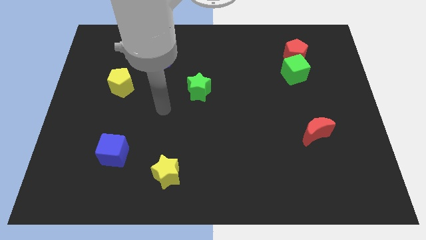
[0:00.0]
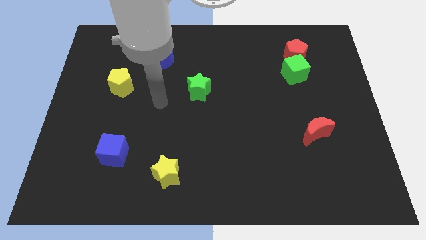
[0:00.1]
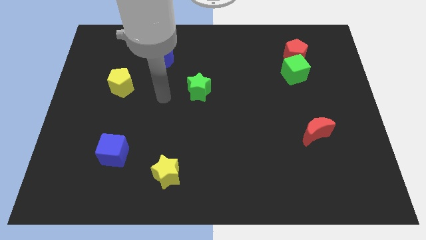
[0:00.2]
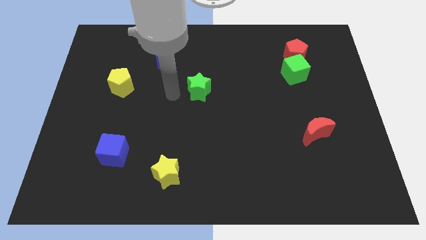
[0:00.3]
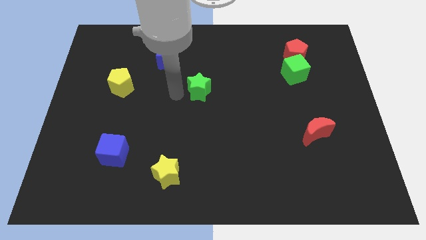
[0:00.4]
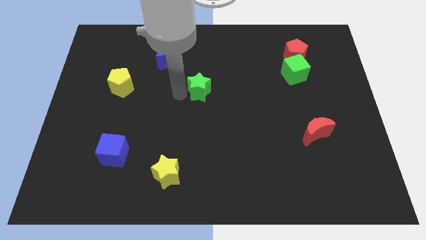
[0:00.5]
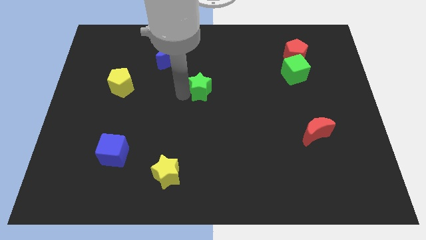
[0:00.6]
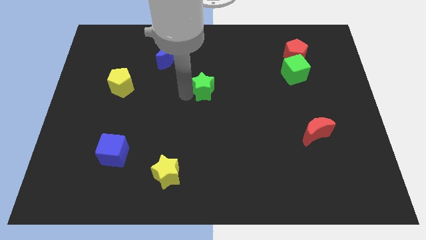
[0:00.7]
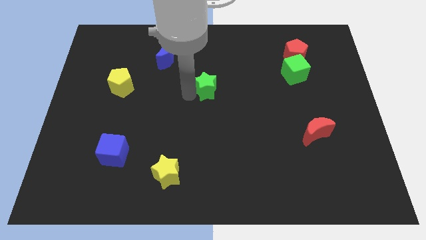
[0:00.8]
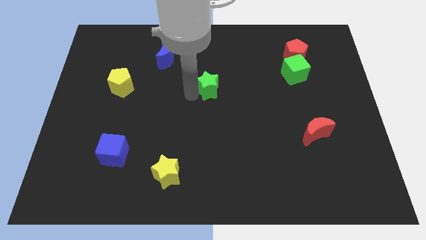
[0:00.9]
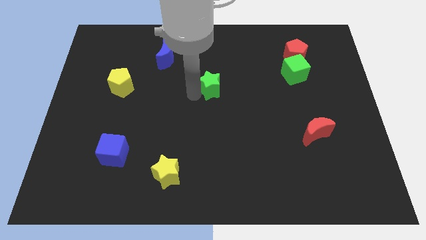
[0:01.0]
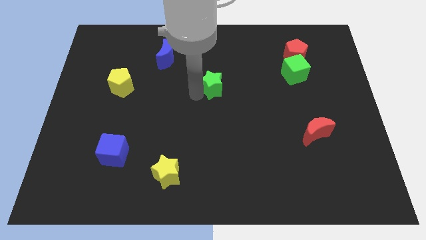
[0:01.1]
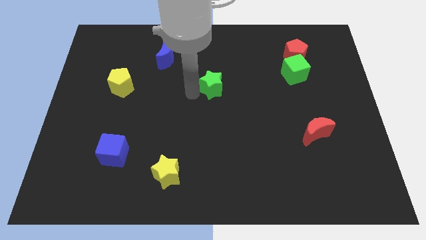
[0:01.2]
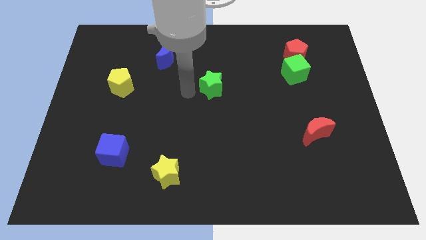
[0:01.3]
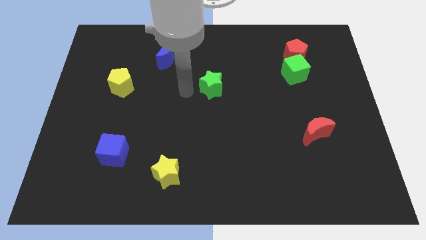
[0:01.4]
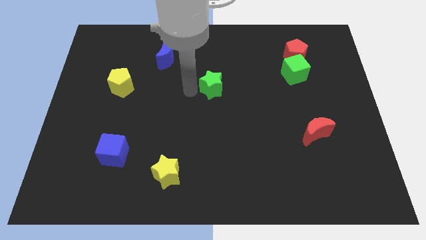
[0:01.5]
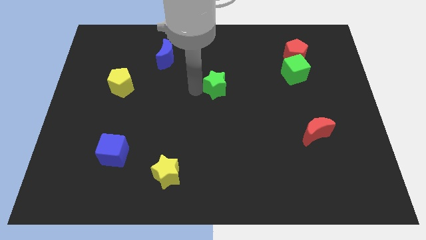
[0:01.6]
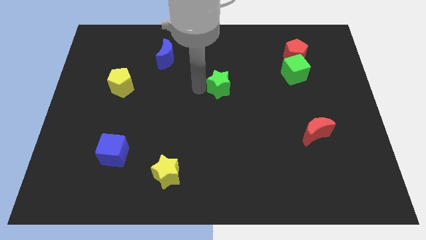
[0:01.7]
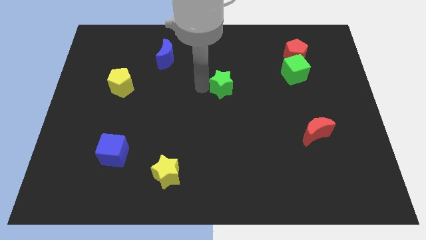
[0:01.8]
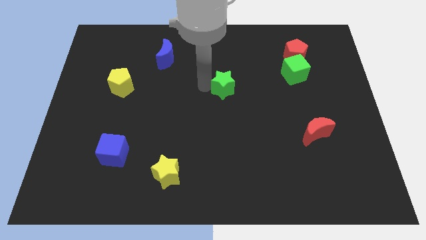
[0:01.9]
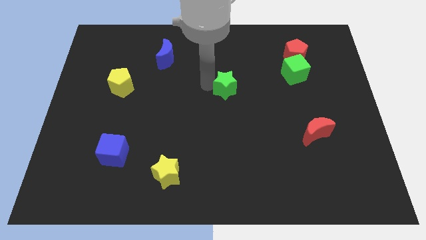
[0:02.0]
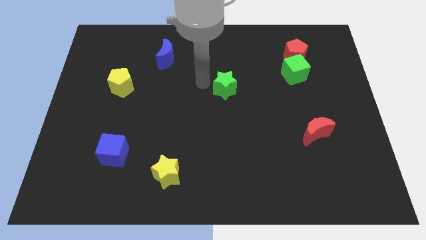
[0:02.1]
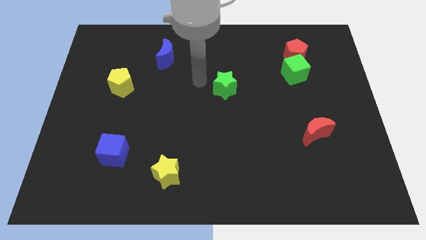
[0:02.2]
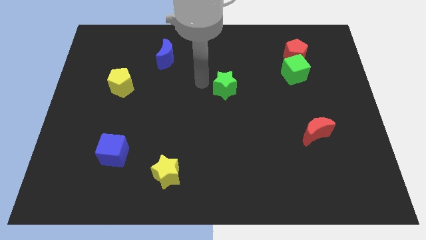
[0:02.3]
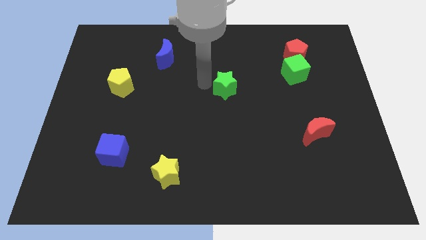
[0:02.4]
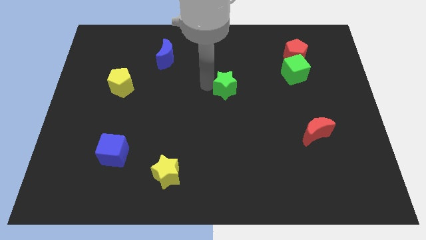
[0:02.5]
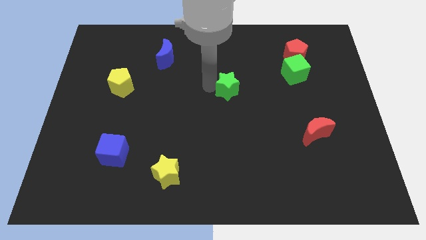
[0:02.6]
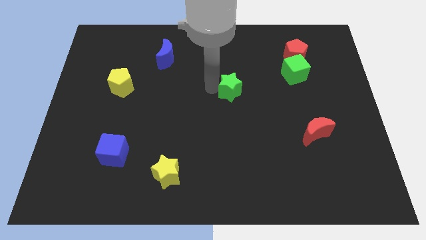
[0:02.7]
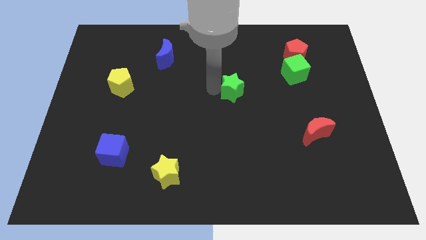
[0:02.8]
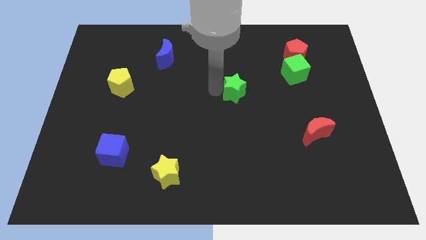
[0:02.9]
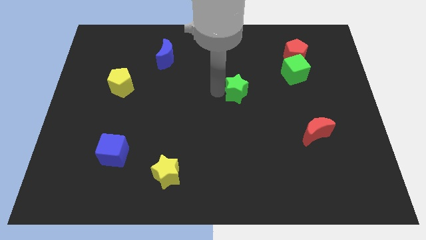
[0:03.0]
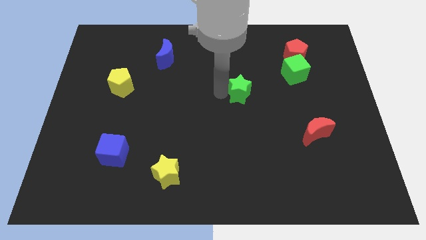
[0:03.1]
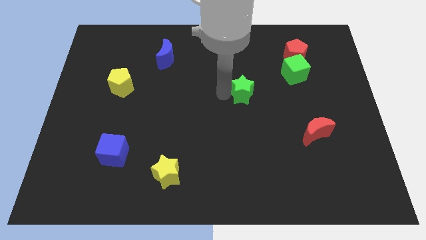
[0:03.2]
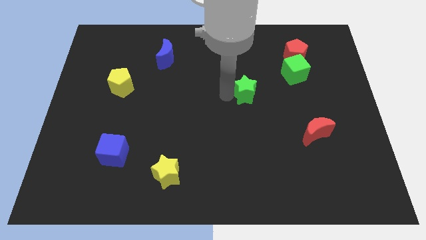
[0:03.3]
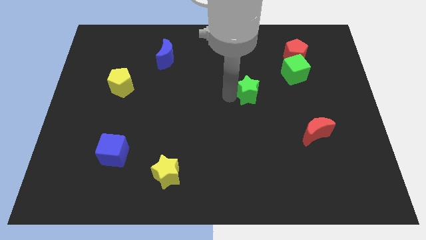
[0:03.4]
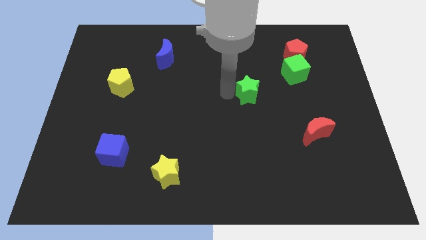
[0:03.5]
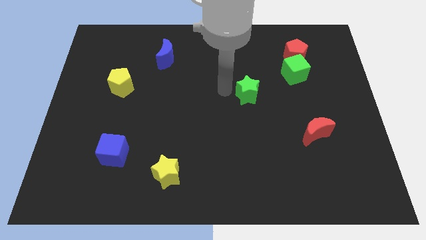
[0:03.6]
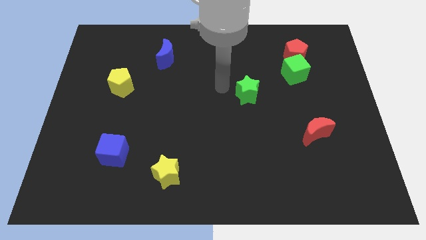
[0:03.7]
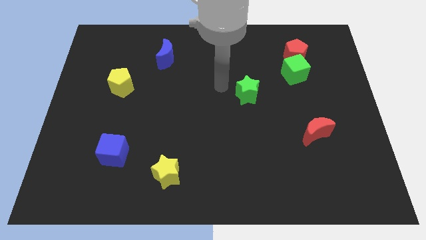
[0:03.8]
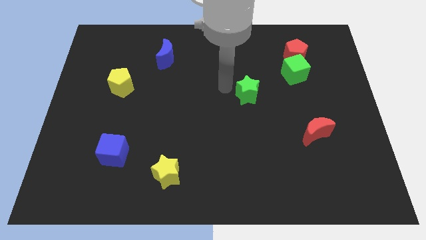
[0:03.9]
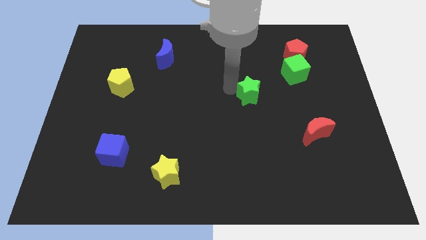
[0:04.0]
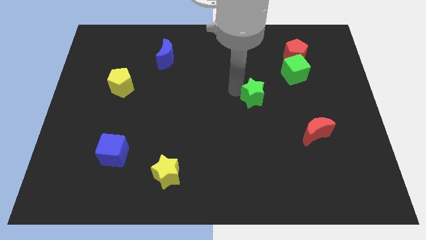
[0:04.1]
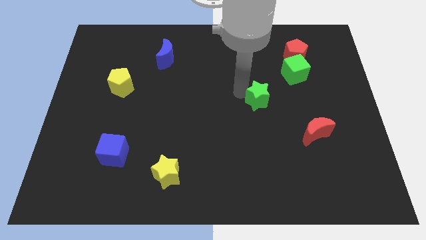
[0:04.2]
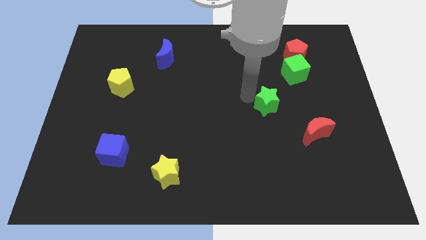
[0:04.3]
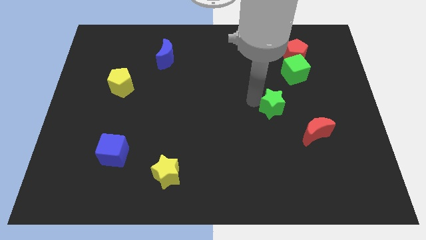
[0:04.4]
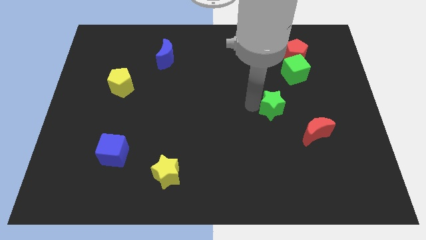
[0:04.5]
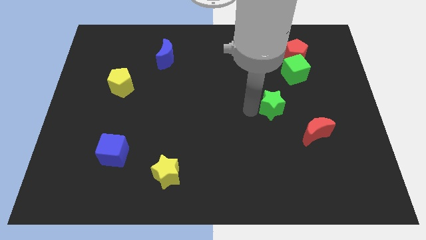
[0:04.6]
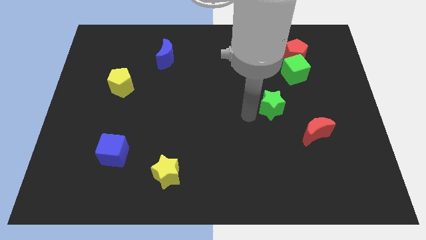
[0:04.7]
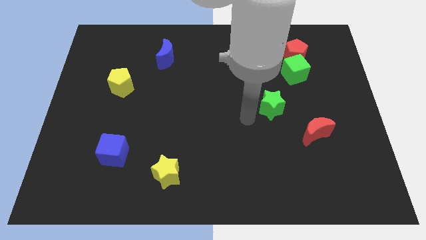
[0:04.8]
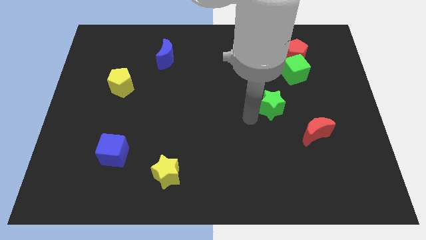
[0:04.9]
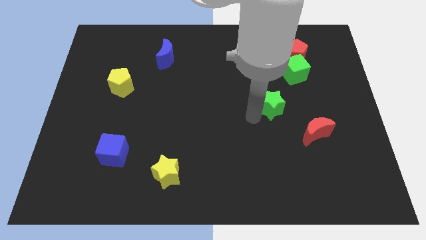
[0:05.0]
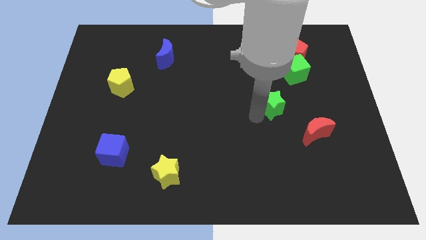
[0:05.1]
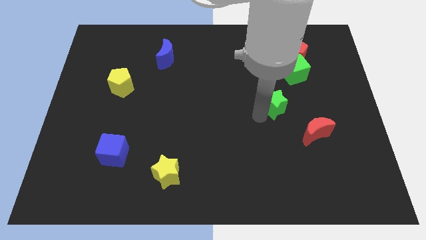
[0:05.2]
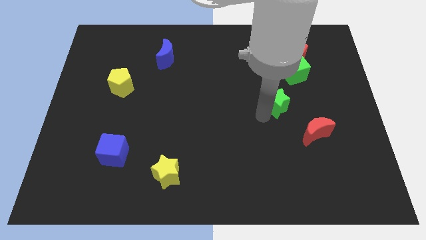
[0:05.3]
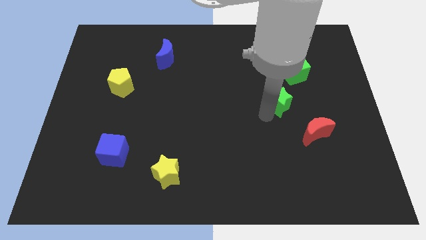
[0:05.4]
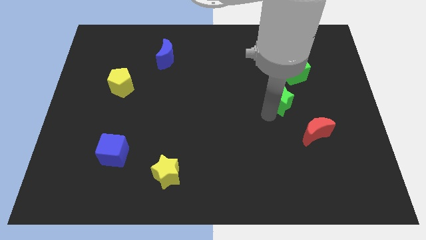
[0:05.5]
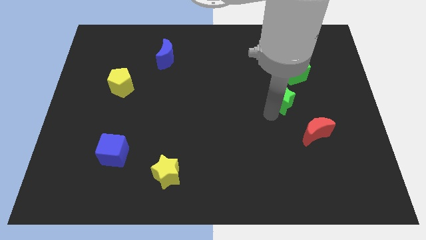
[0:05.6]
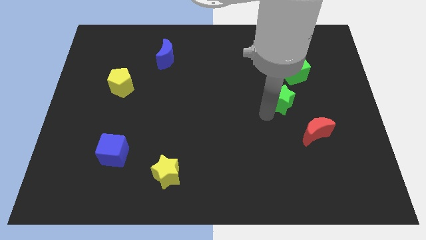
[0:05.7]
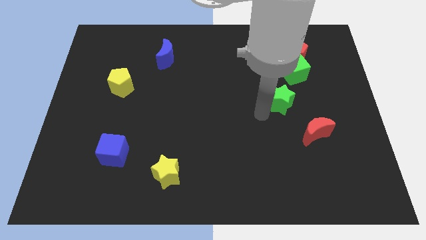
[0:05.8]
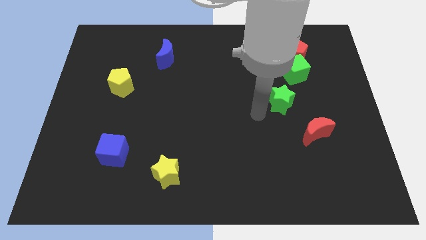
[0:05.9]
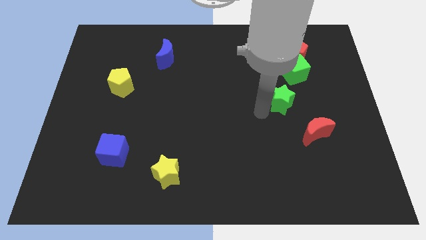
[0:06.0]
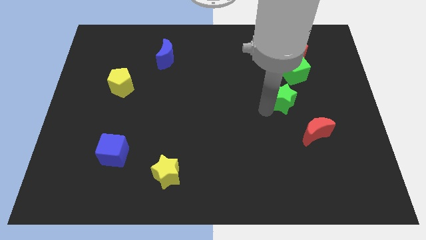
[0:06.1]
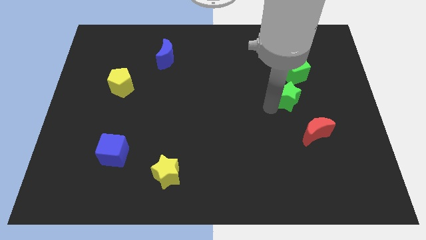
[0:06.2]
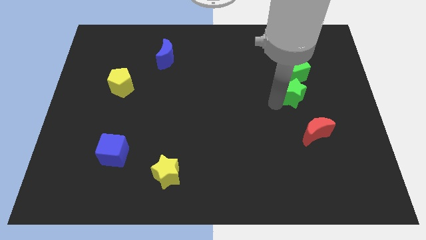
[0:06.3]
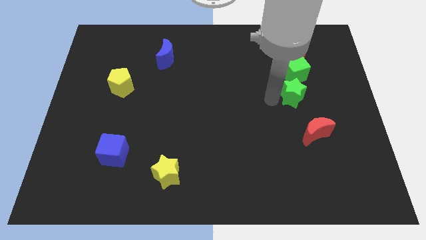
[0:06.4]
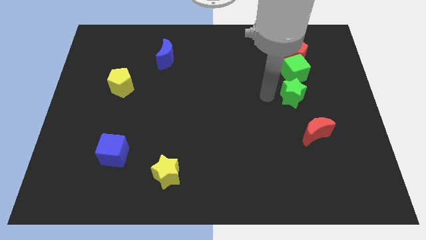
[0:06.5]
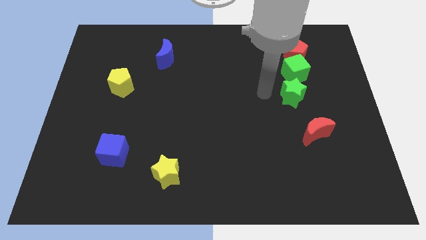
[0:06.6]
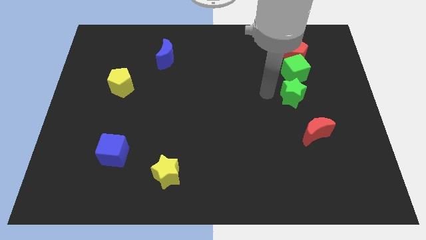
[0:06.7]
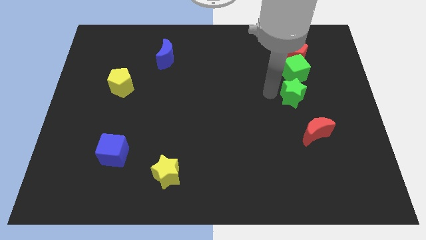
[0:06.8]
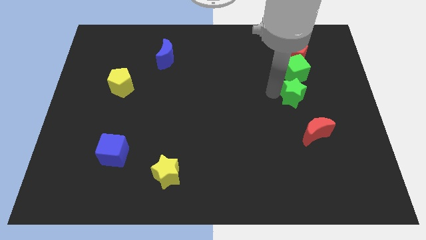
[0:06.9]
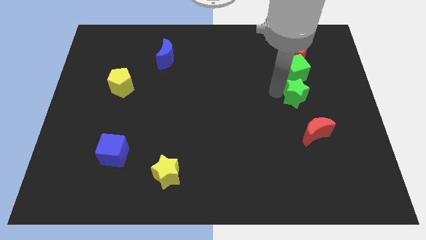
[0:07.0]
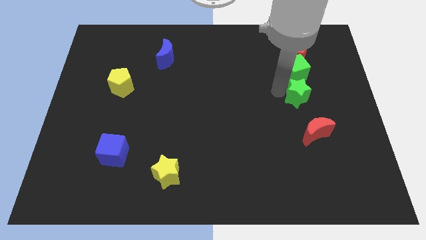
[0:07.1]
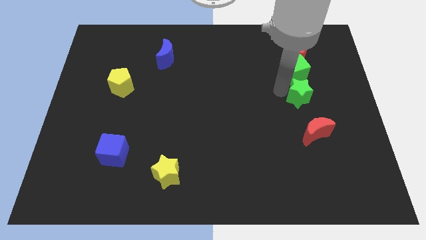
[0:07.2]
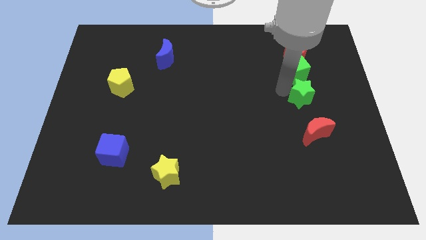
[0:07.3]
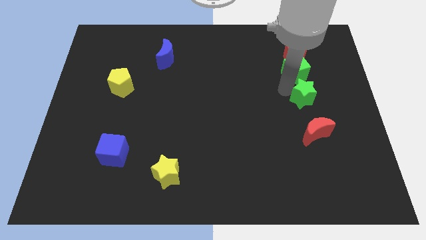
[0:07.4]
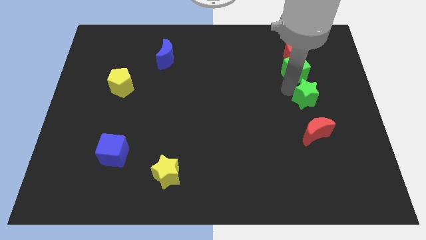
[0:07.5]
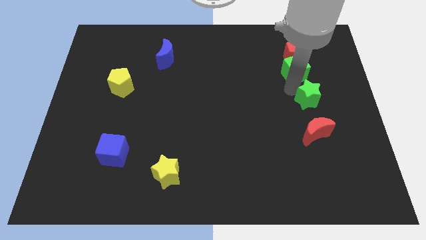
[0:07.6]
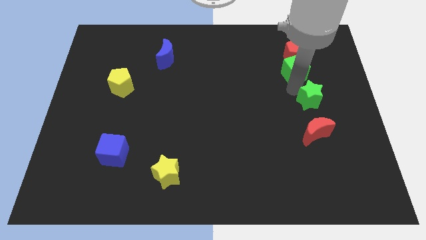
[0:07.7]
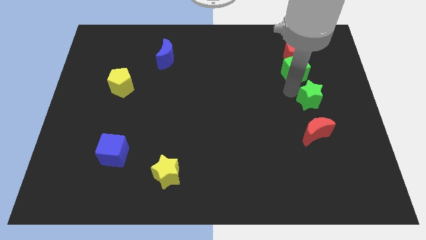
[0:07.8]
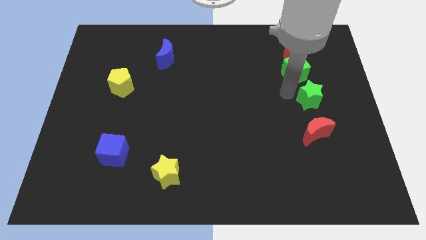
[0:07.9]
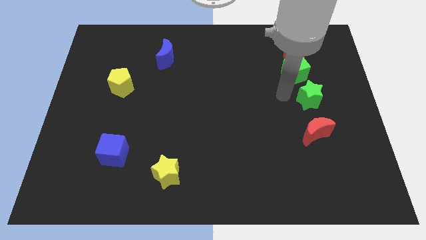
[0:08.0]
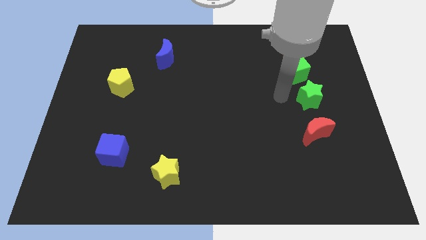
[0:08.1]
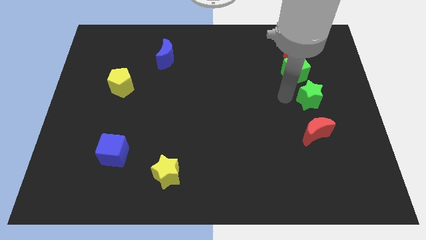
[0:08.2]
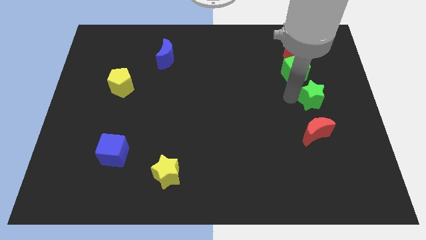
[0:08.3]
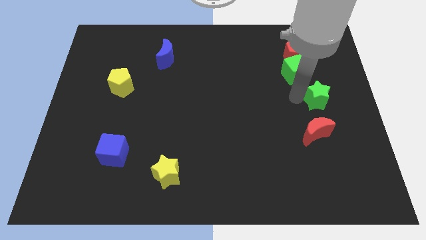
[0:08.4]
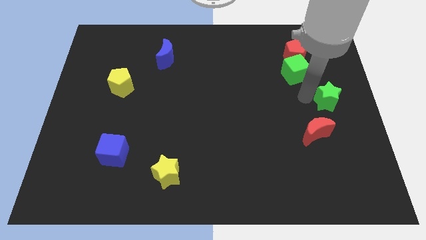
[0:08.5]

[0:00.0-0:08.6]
put the green star to the right side
